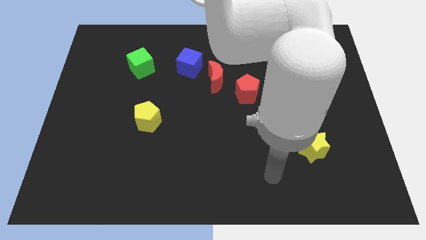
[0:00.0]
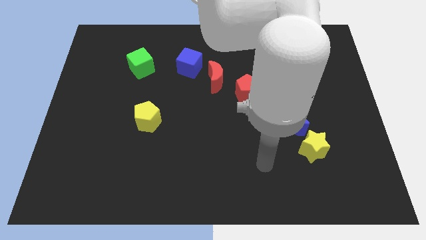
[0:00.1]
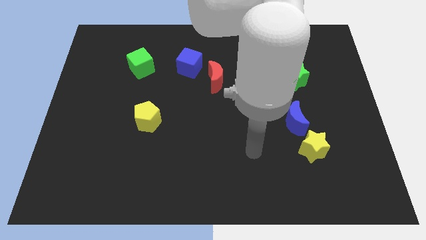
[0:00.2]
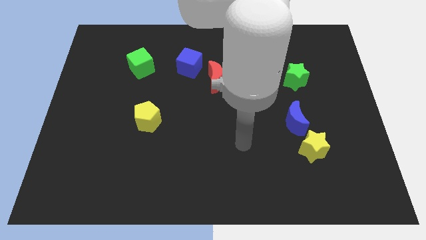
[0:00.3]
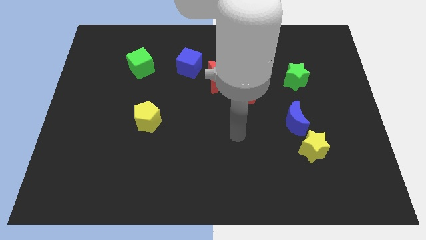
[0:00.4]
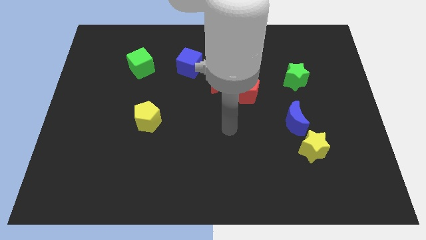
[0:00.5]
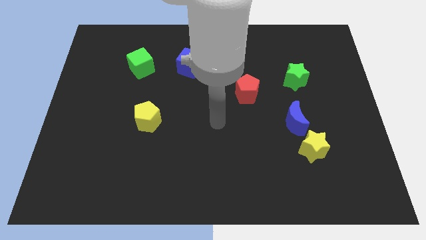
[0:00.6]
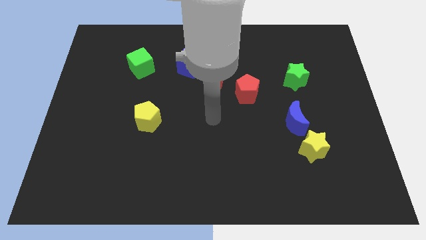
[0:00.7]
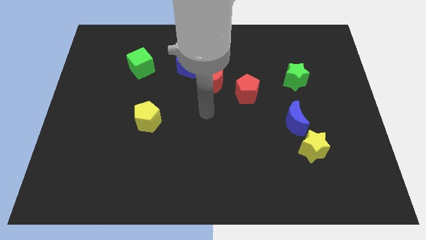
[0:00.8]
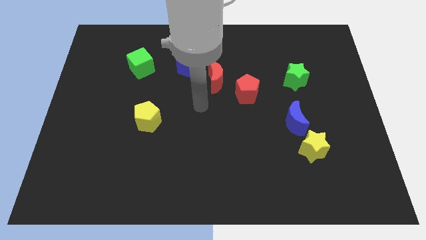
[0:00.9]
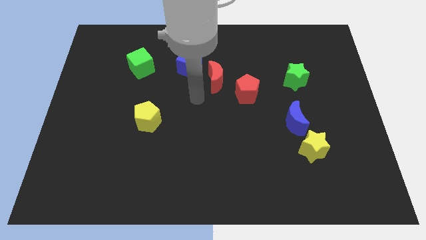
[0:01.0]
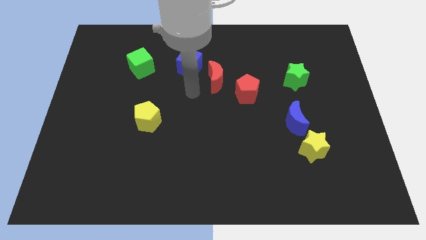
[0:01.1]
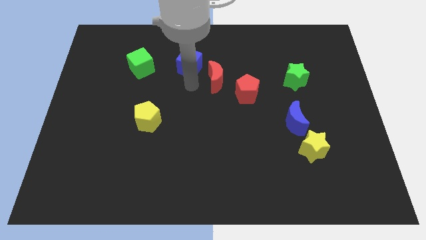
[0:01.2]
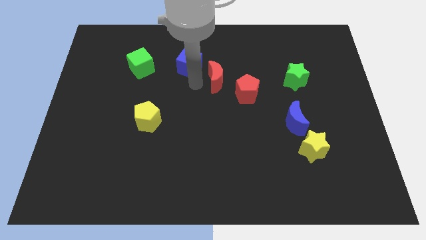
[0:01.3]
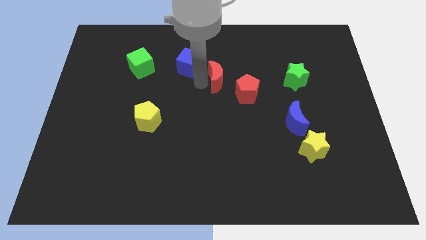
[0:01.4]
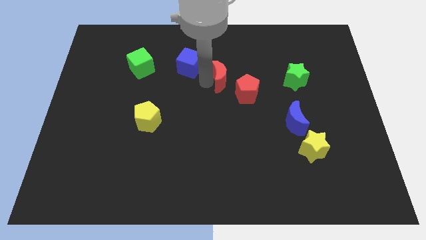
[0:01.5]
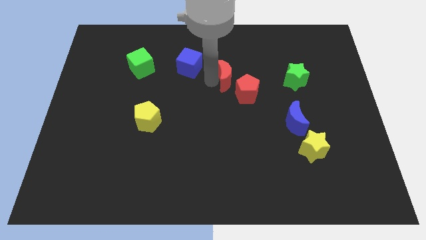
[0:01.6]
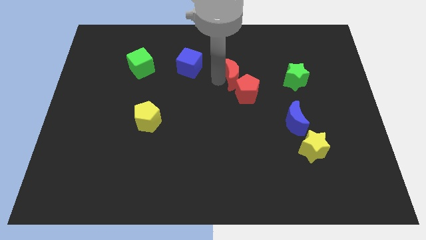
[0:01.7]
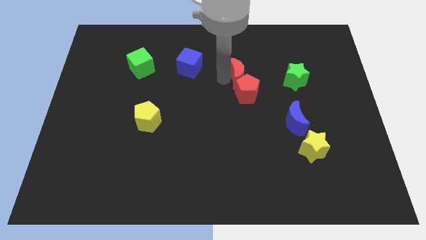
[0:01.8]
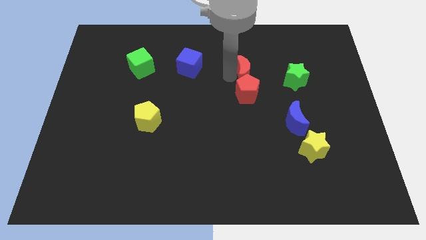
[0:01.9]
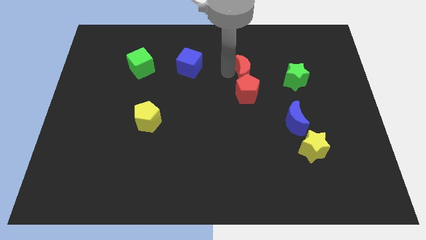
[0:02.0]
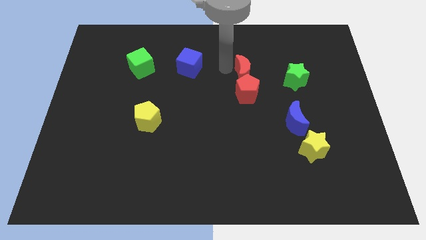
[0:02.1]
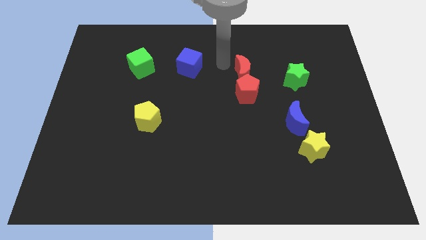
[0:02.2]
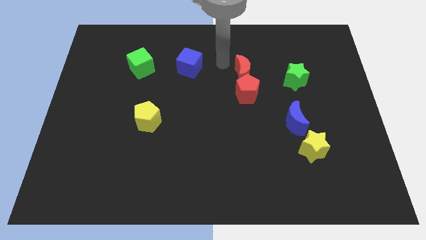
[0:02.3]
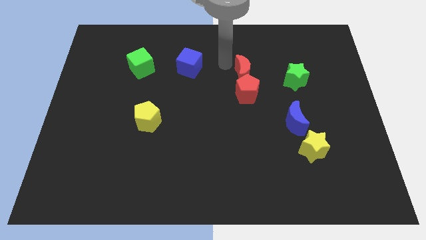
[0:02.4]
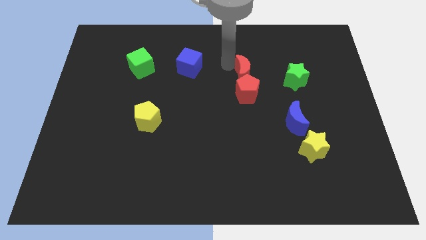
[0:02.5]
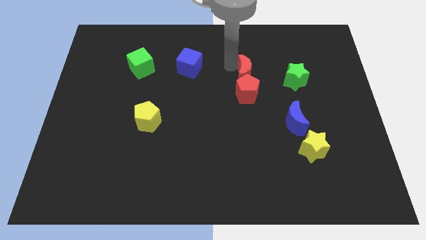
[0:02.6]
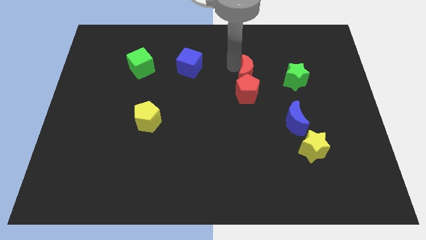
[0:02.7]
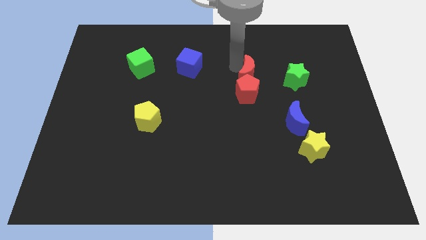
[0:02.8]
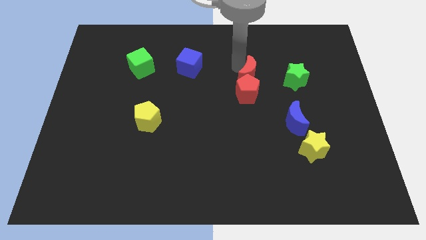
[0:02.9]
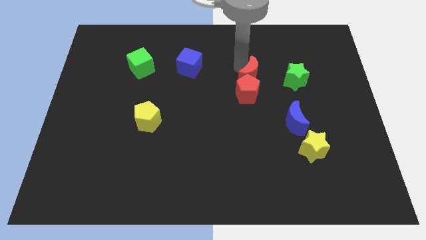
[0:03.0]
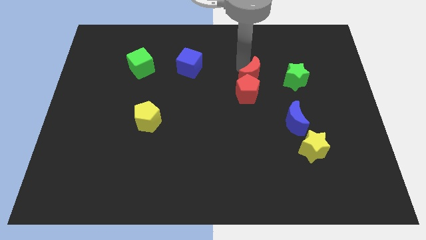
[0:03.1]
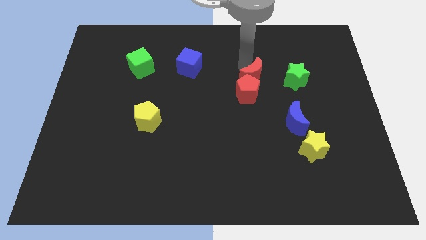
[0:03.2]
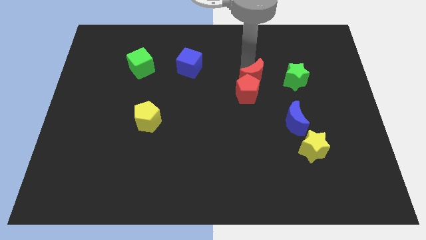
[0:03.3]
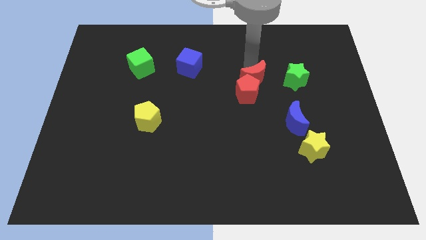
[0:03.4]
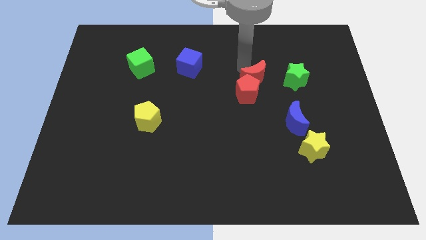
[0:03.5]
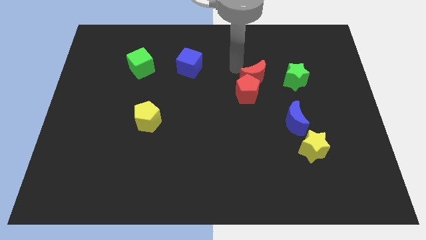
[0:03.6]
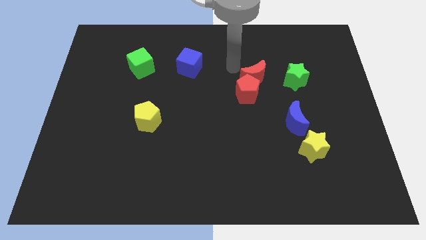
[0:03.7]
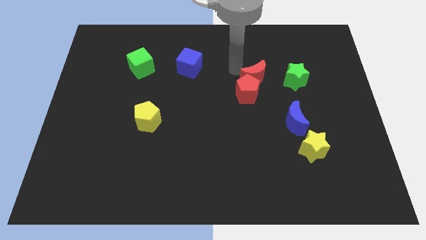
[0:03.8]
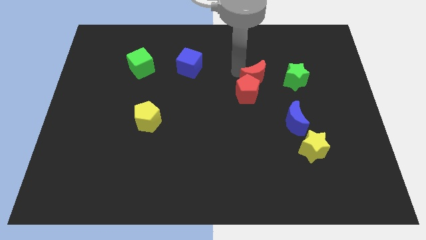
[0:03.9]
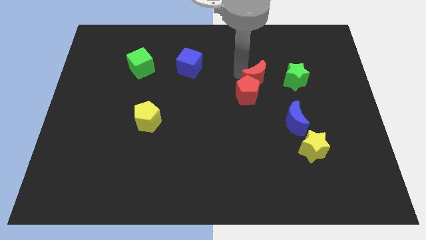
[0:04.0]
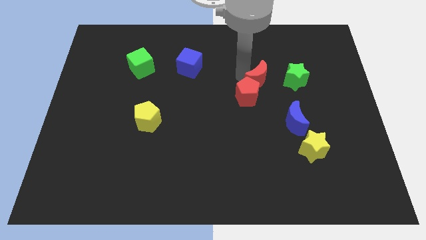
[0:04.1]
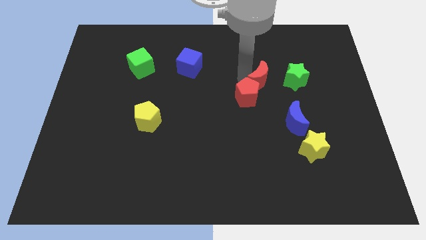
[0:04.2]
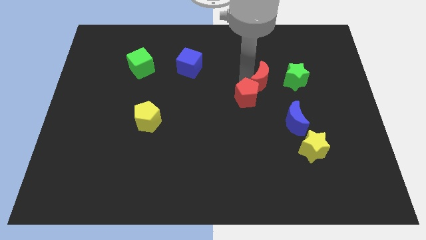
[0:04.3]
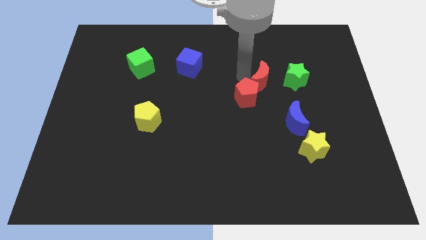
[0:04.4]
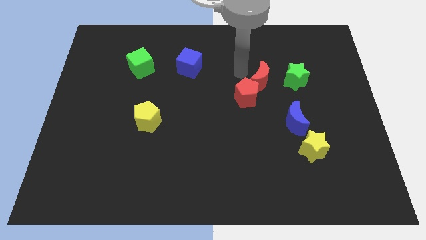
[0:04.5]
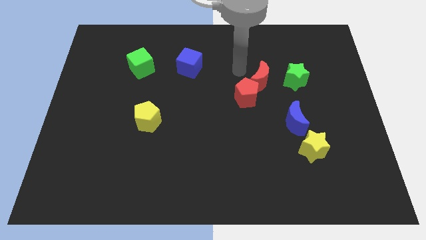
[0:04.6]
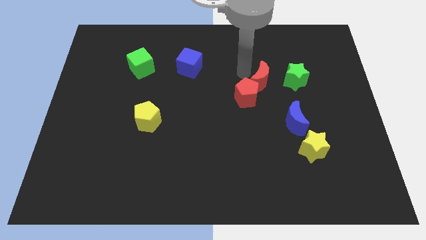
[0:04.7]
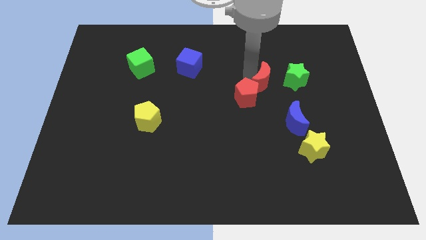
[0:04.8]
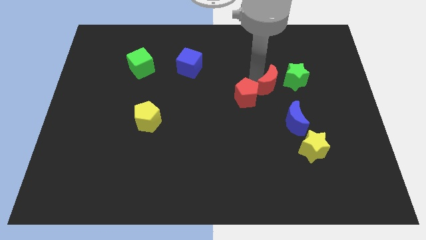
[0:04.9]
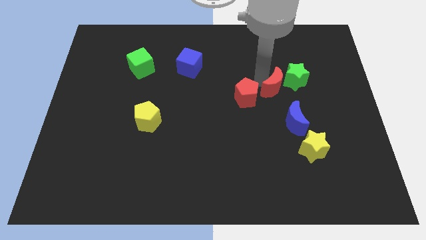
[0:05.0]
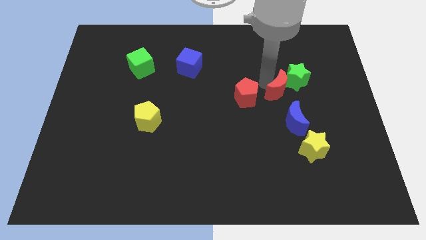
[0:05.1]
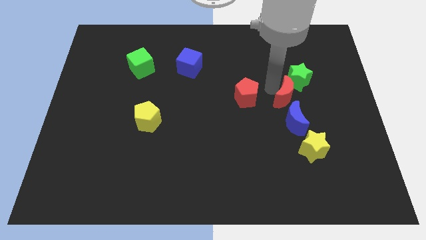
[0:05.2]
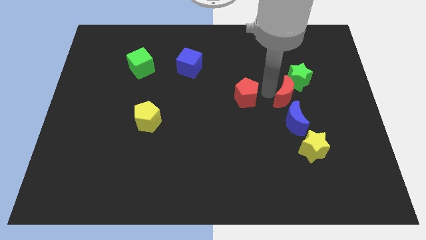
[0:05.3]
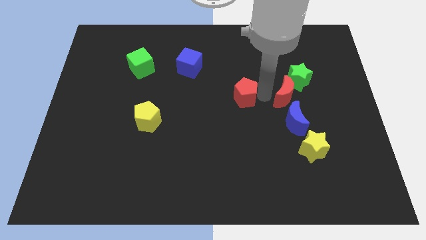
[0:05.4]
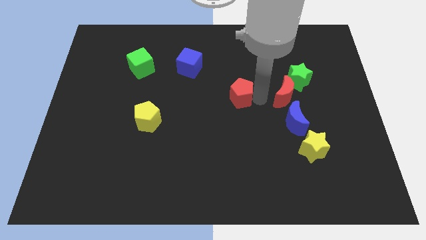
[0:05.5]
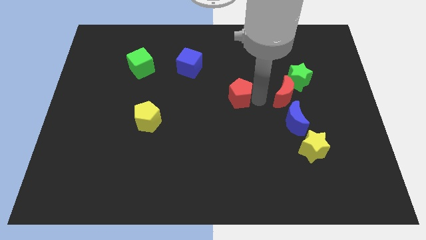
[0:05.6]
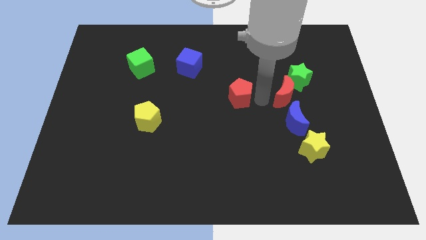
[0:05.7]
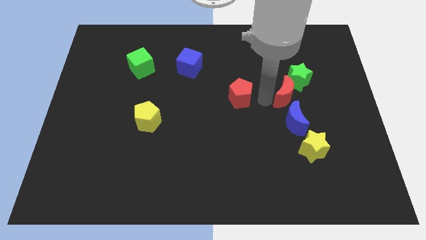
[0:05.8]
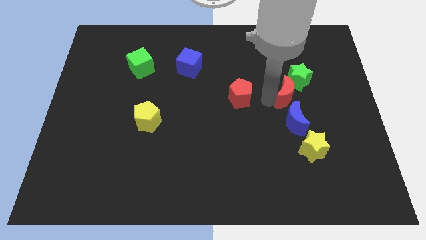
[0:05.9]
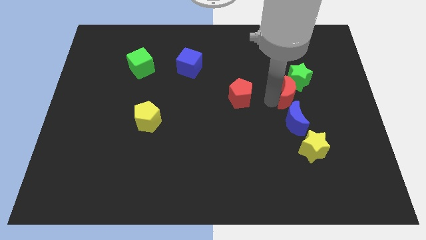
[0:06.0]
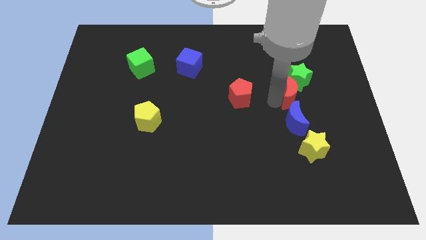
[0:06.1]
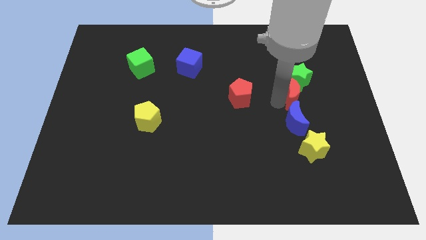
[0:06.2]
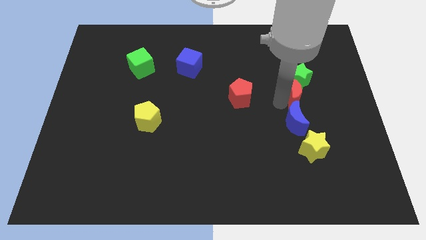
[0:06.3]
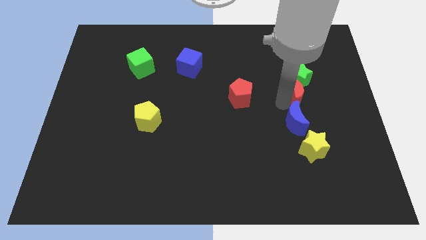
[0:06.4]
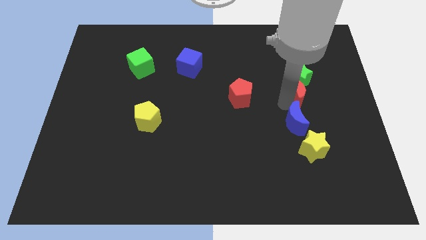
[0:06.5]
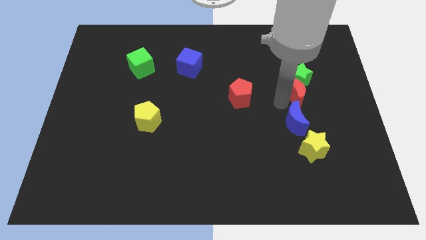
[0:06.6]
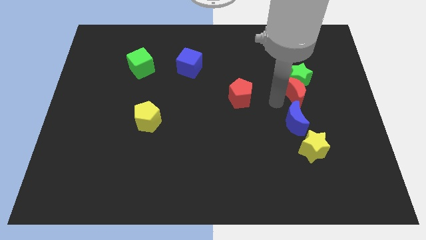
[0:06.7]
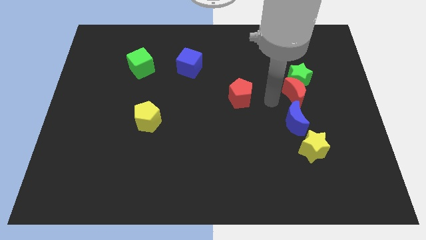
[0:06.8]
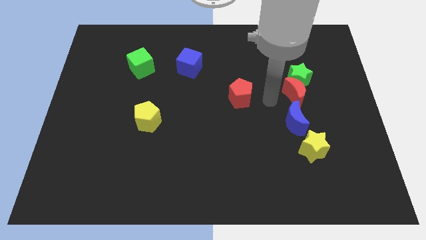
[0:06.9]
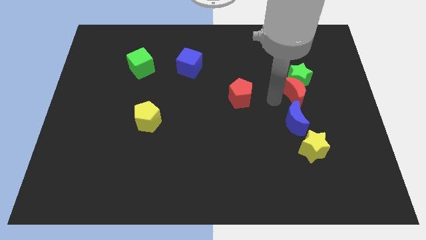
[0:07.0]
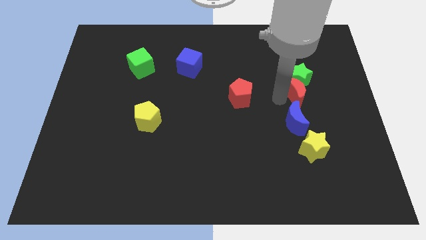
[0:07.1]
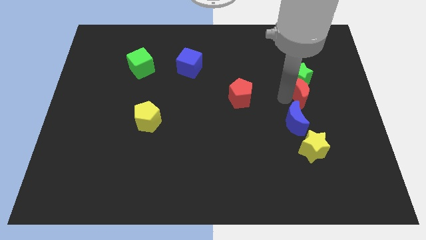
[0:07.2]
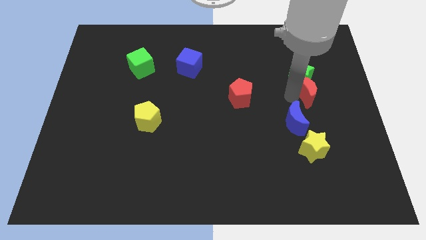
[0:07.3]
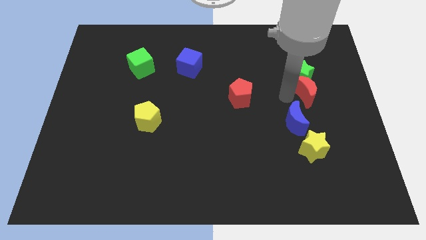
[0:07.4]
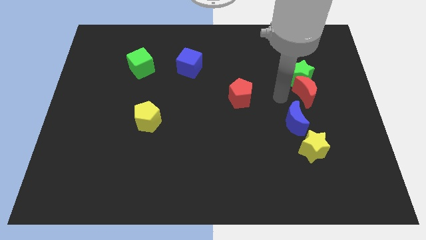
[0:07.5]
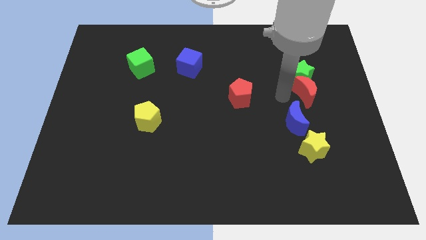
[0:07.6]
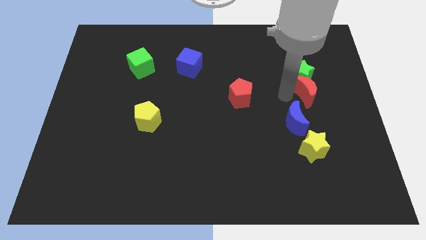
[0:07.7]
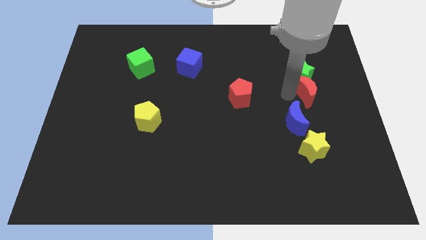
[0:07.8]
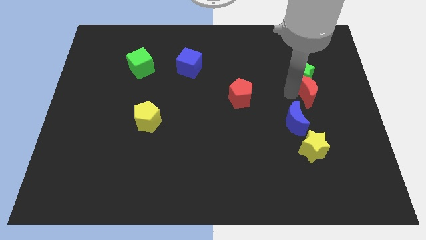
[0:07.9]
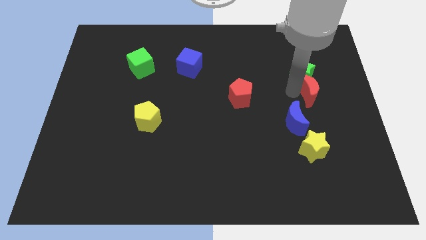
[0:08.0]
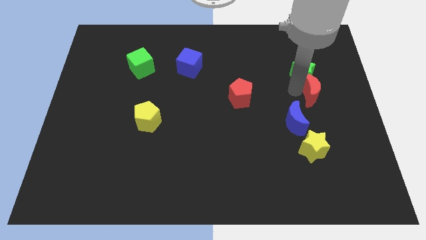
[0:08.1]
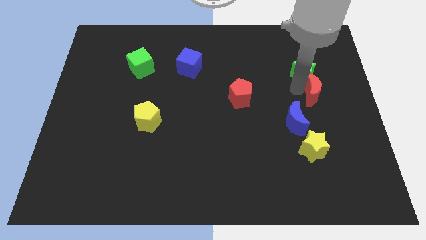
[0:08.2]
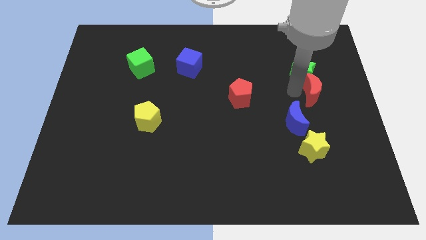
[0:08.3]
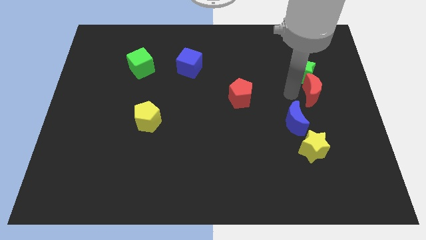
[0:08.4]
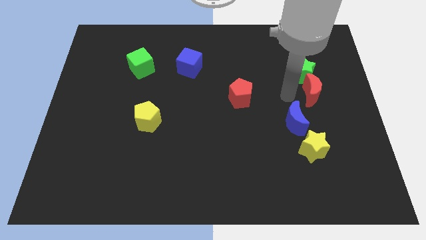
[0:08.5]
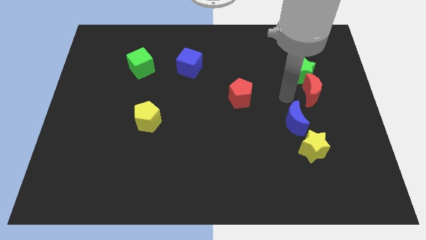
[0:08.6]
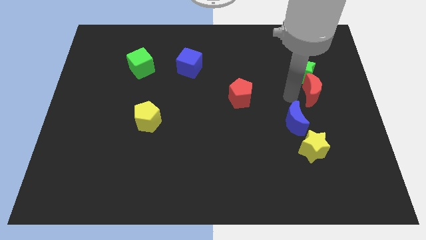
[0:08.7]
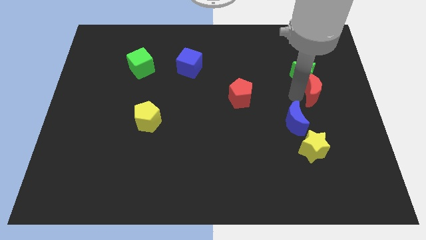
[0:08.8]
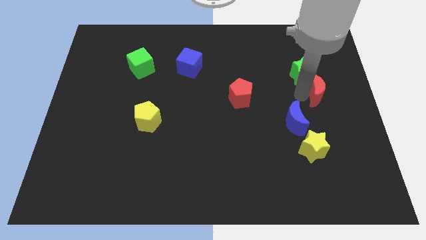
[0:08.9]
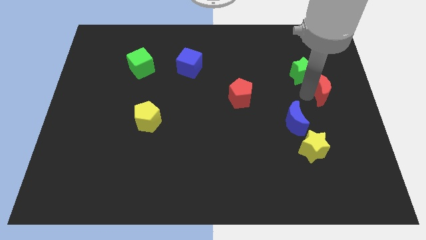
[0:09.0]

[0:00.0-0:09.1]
slide the red moon to the right side of the board
